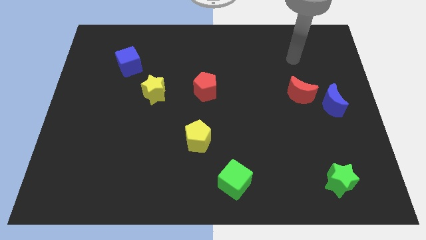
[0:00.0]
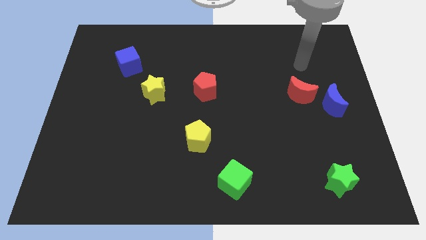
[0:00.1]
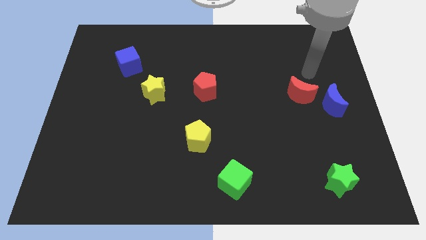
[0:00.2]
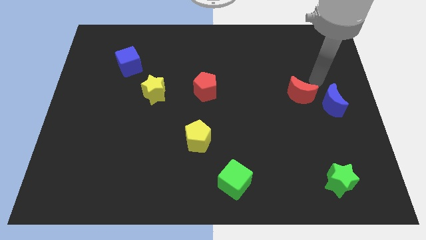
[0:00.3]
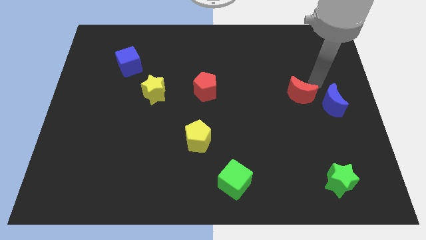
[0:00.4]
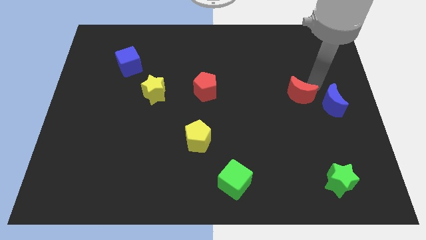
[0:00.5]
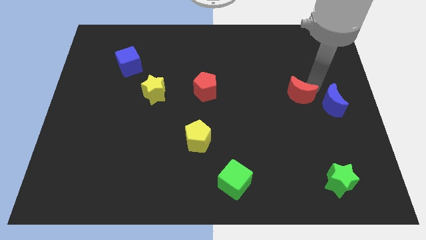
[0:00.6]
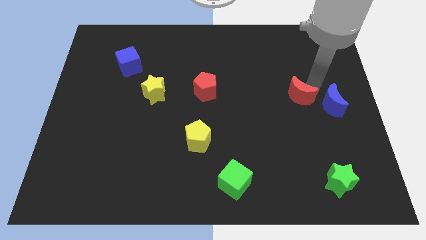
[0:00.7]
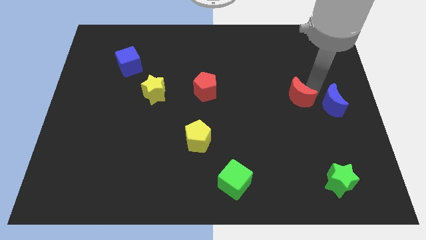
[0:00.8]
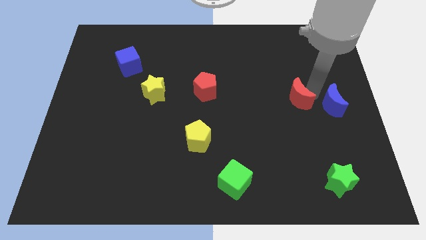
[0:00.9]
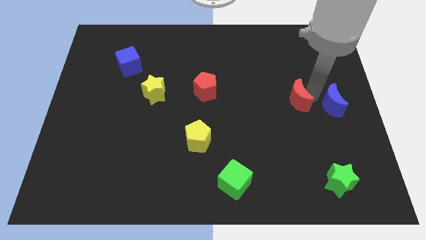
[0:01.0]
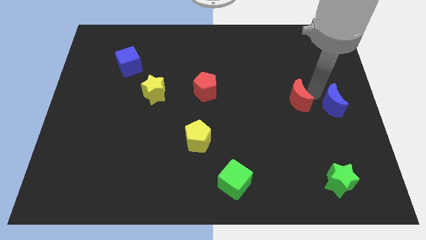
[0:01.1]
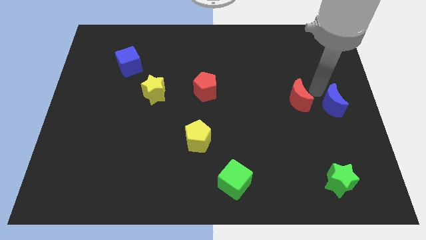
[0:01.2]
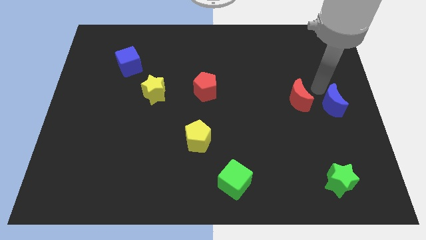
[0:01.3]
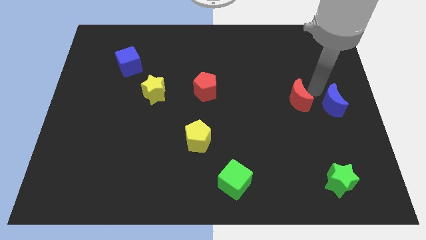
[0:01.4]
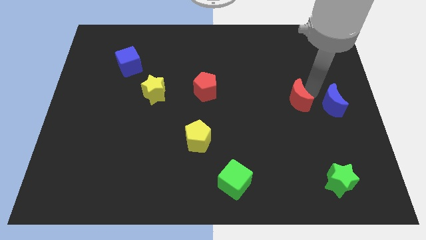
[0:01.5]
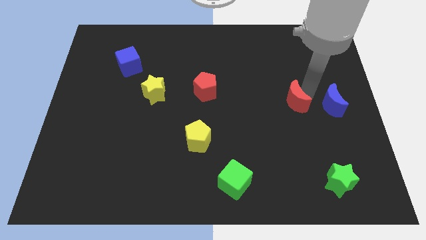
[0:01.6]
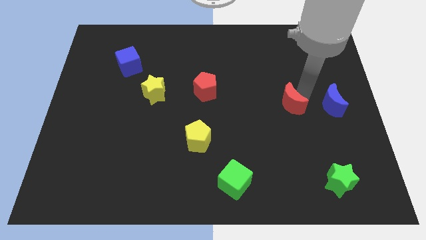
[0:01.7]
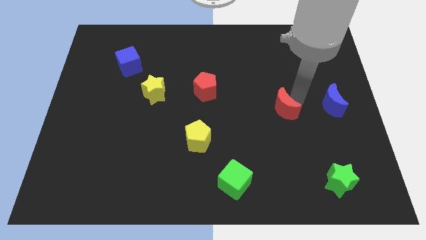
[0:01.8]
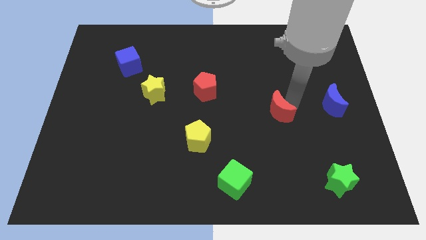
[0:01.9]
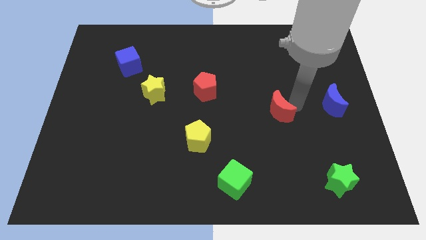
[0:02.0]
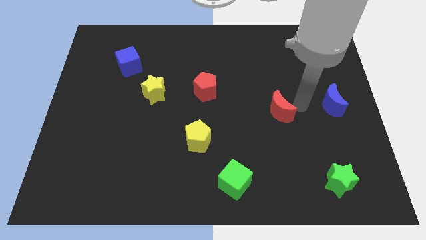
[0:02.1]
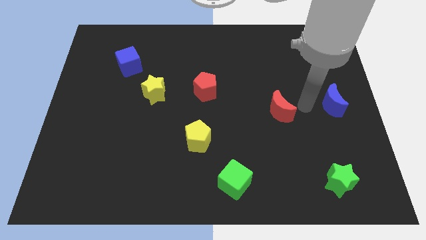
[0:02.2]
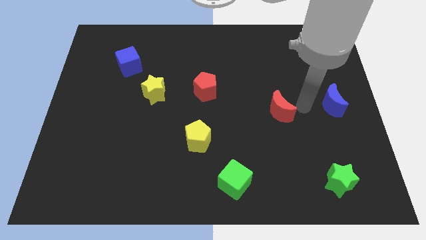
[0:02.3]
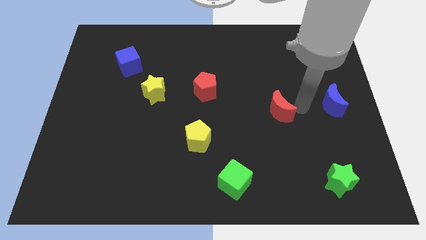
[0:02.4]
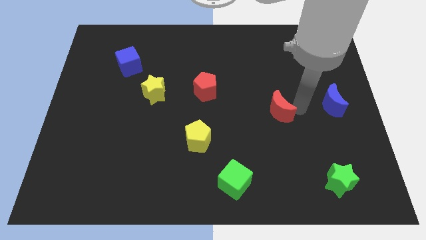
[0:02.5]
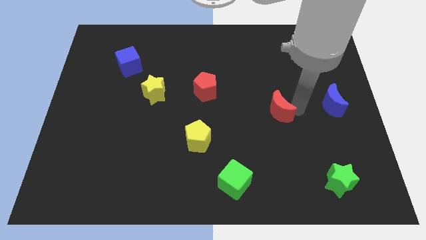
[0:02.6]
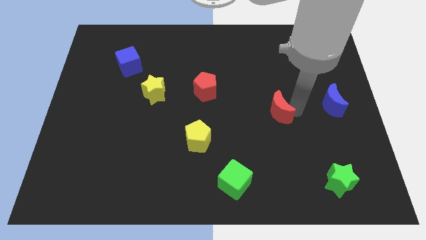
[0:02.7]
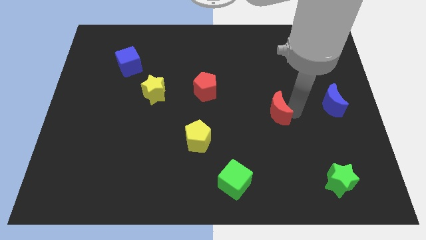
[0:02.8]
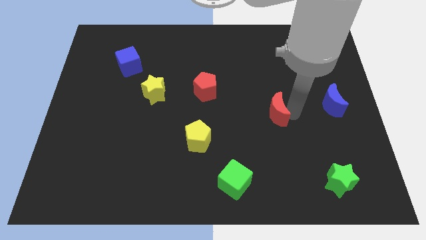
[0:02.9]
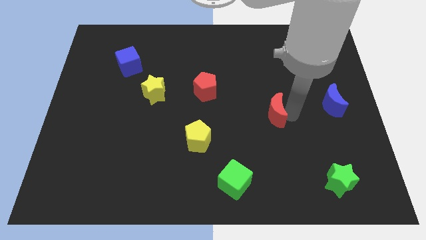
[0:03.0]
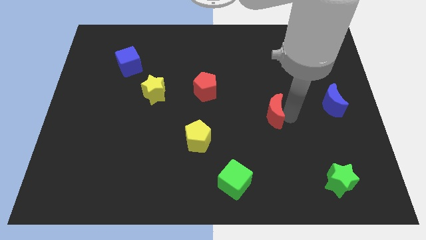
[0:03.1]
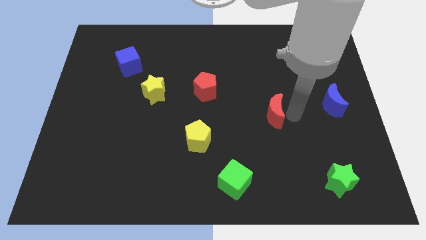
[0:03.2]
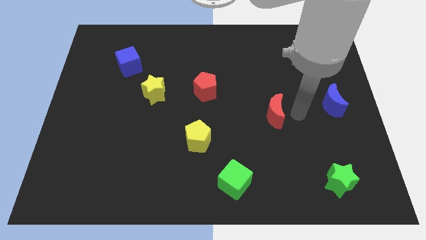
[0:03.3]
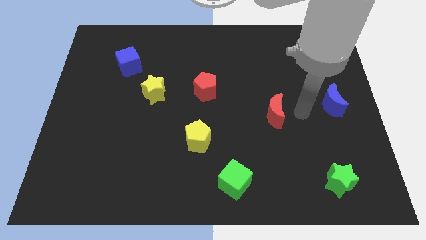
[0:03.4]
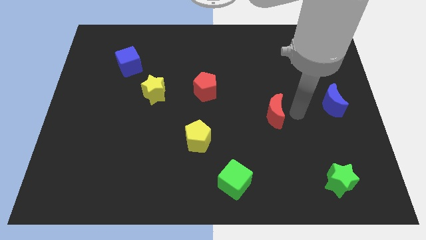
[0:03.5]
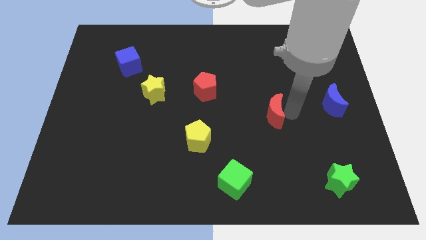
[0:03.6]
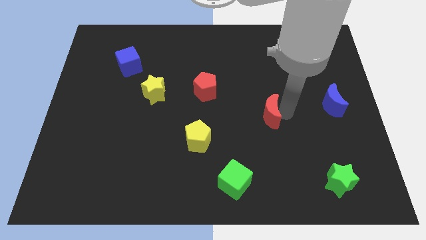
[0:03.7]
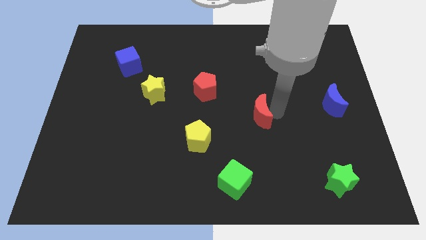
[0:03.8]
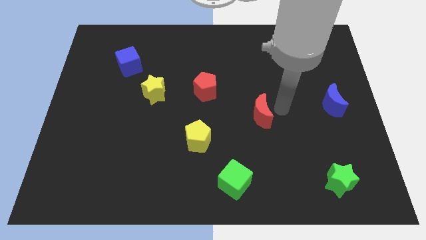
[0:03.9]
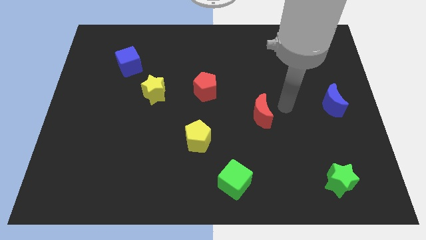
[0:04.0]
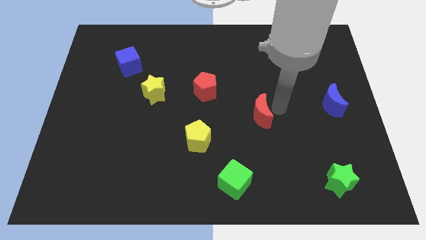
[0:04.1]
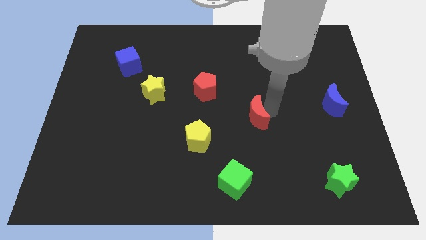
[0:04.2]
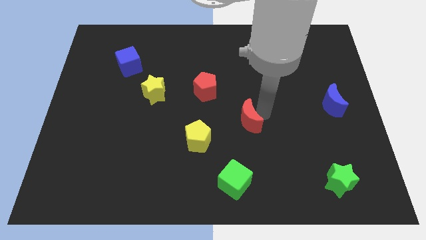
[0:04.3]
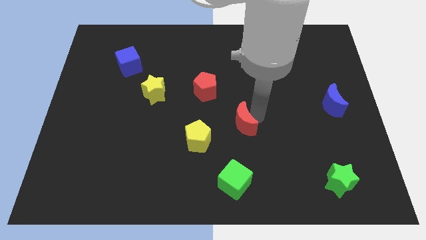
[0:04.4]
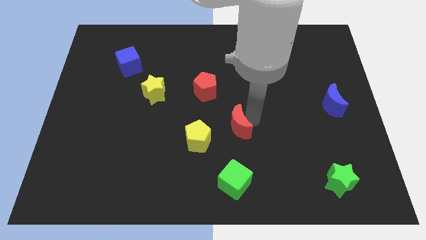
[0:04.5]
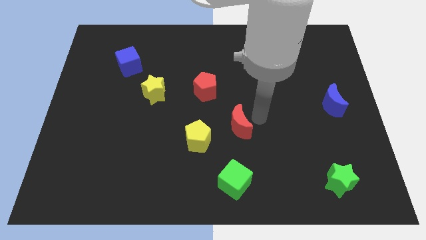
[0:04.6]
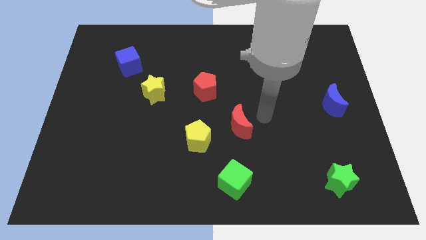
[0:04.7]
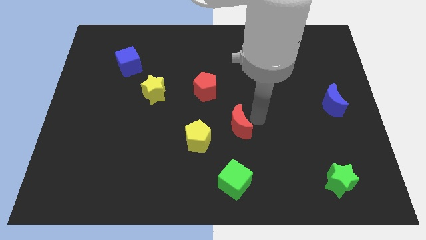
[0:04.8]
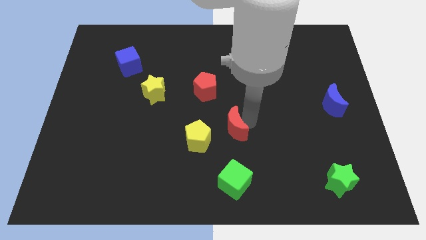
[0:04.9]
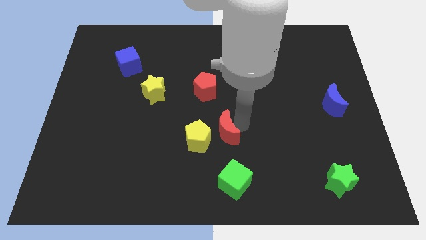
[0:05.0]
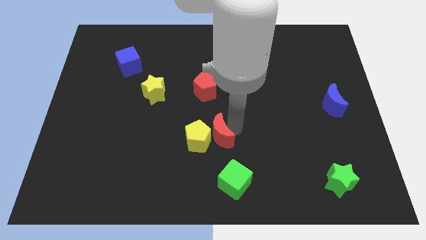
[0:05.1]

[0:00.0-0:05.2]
slide the red moon to the yellow pentagon

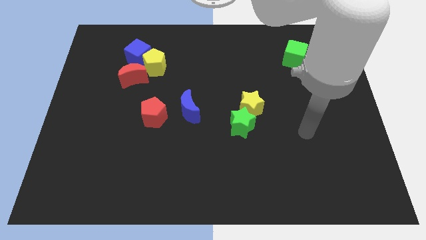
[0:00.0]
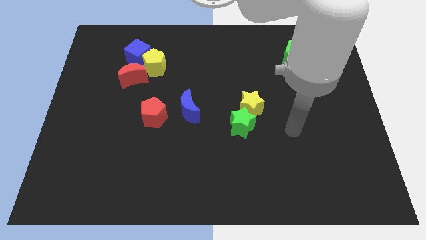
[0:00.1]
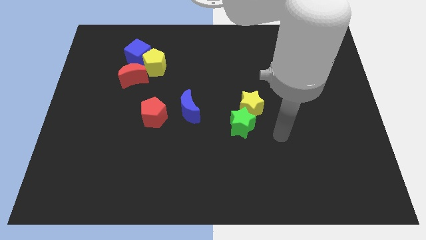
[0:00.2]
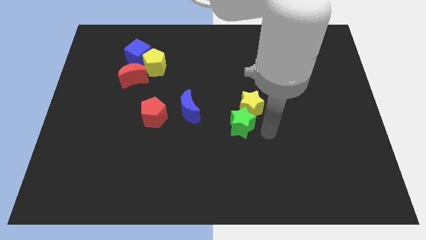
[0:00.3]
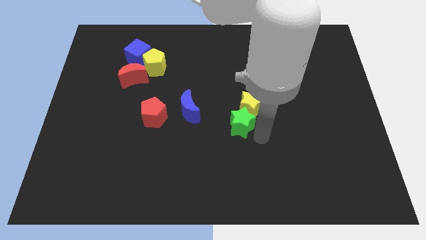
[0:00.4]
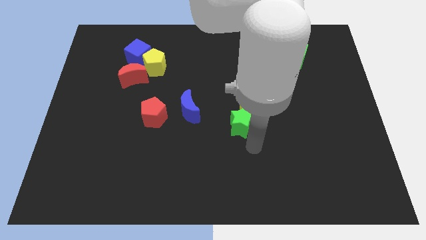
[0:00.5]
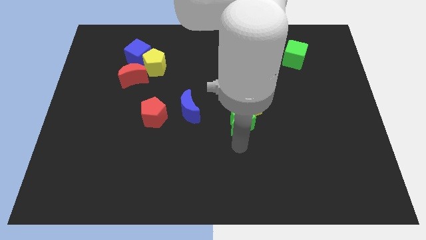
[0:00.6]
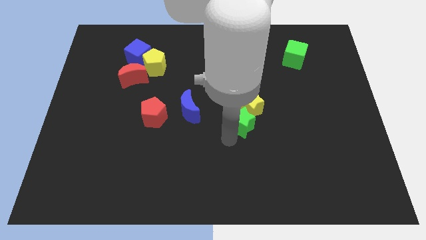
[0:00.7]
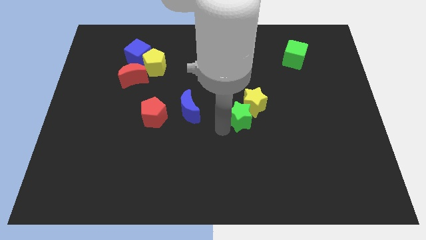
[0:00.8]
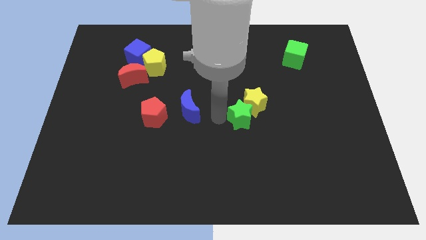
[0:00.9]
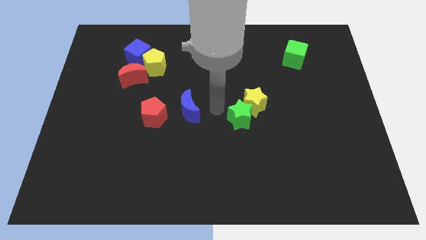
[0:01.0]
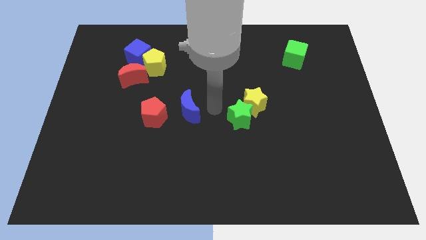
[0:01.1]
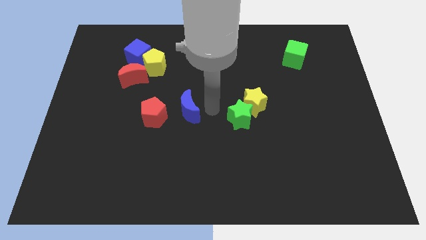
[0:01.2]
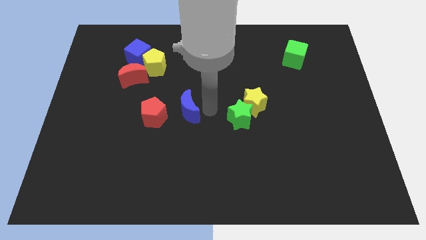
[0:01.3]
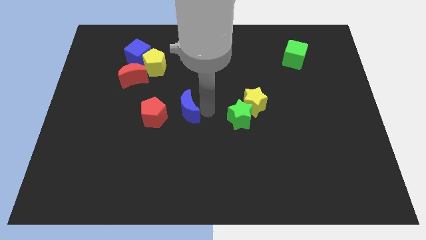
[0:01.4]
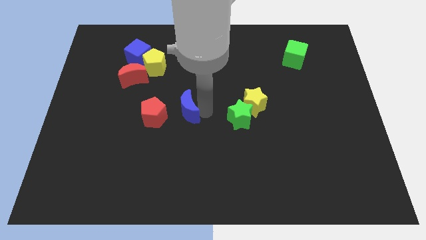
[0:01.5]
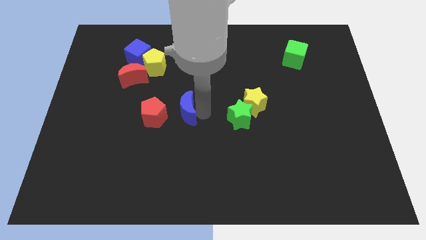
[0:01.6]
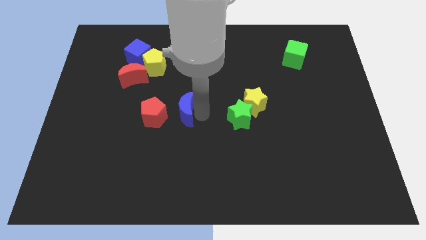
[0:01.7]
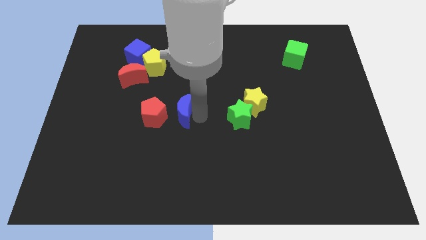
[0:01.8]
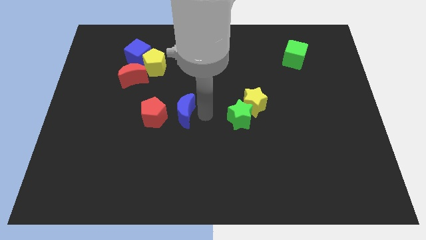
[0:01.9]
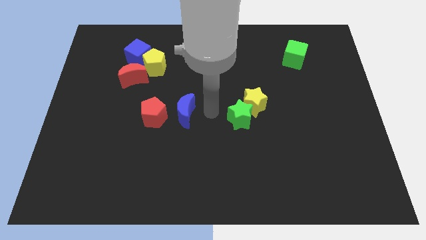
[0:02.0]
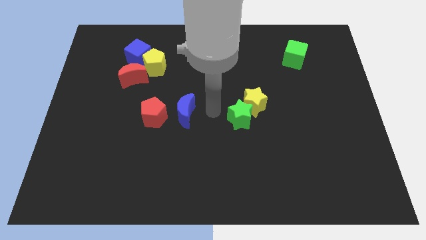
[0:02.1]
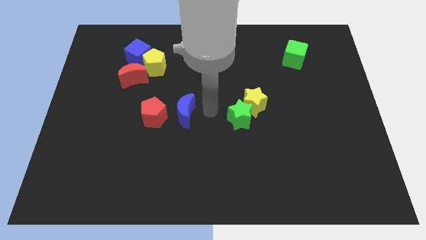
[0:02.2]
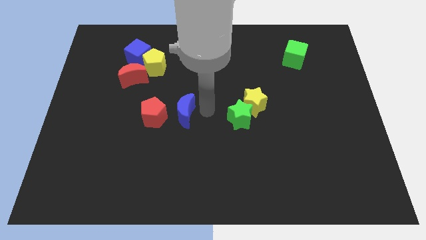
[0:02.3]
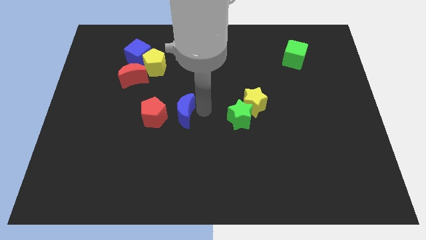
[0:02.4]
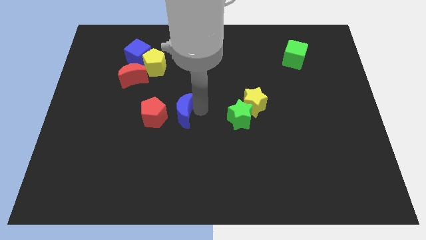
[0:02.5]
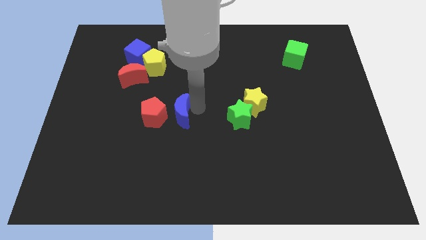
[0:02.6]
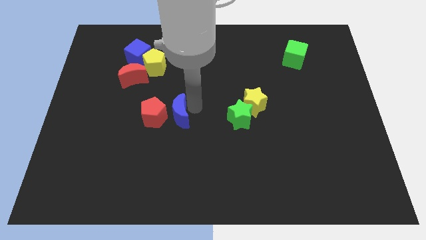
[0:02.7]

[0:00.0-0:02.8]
put the blue moon next to the red pentagon
